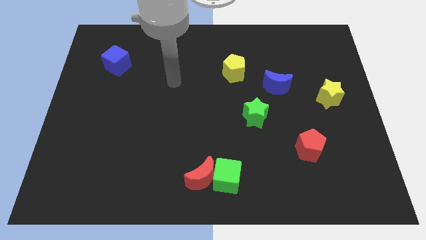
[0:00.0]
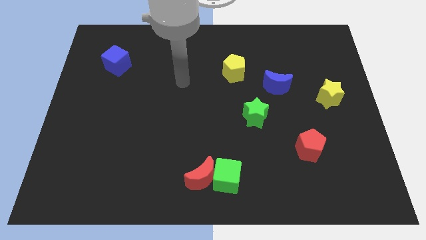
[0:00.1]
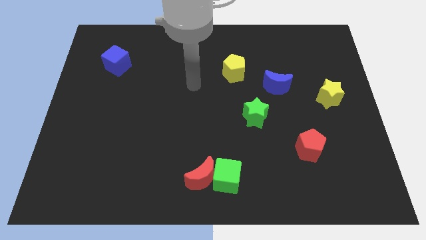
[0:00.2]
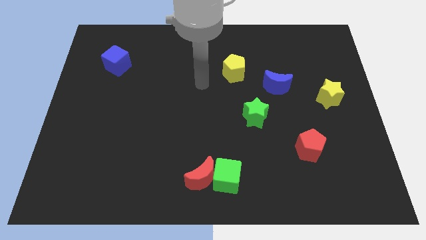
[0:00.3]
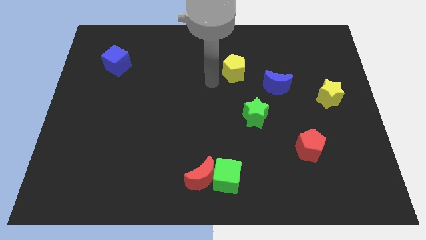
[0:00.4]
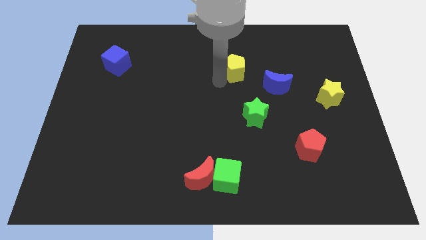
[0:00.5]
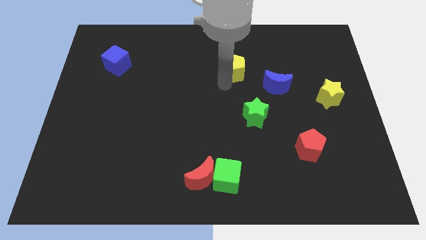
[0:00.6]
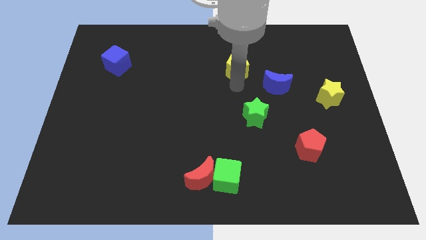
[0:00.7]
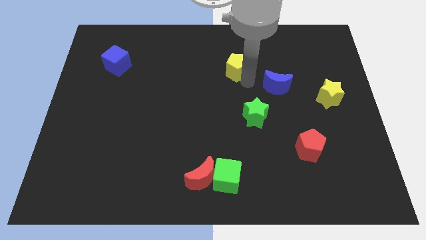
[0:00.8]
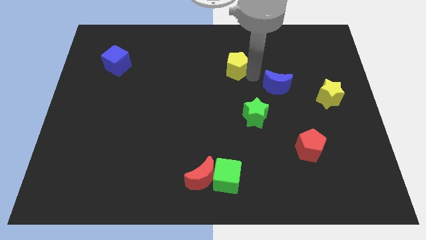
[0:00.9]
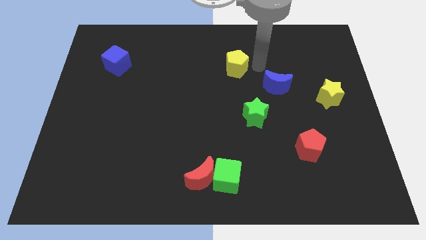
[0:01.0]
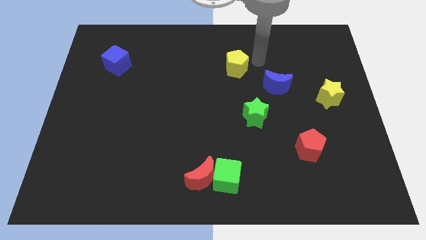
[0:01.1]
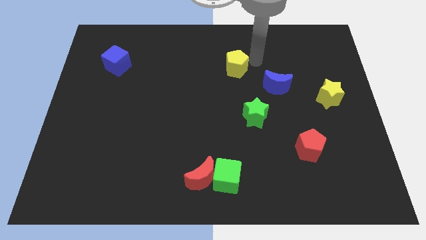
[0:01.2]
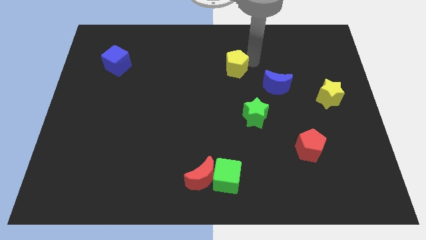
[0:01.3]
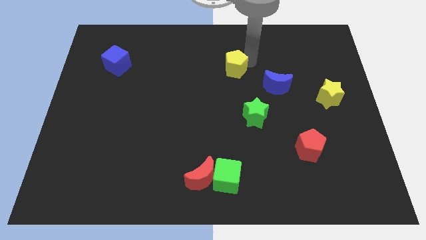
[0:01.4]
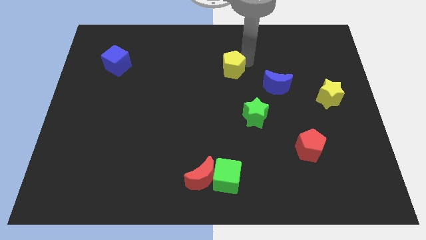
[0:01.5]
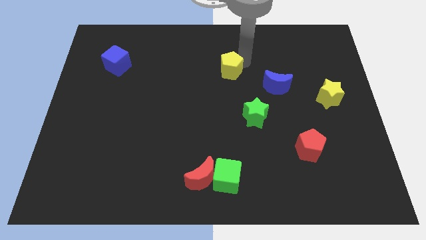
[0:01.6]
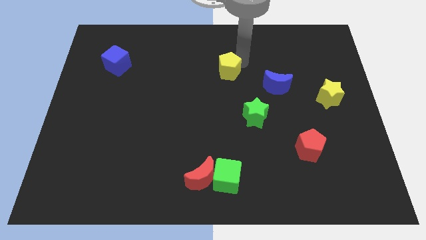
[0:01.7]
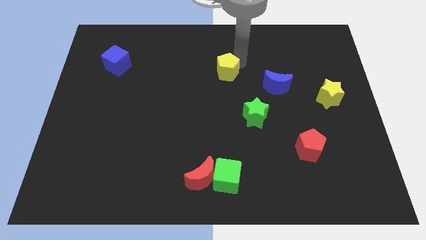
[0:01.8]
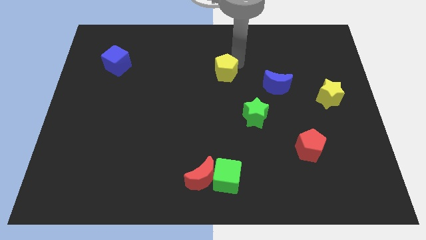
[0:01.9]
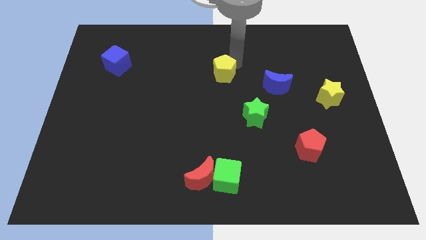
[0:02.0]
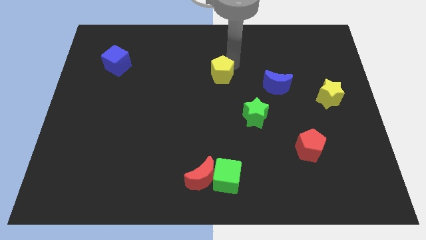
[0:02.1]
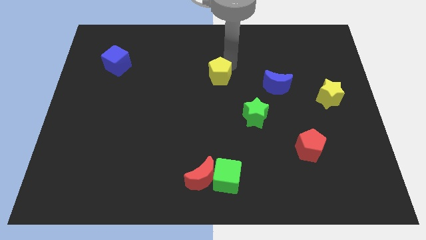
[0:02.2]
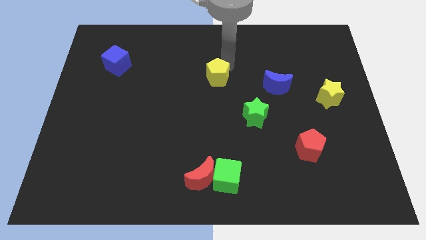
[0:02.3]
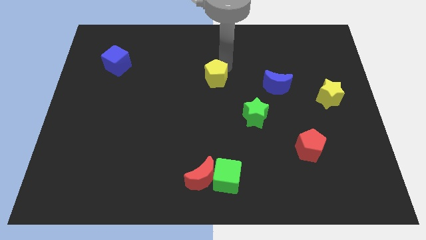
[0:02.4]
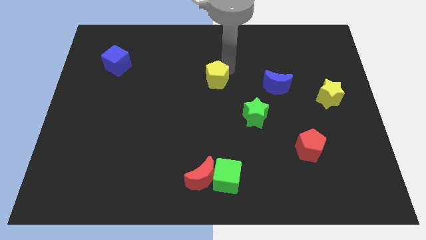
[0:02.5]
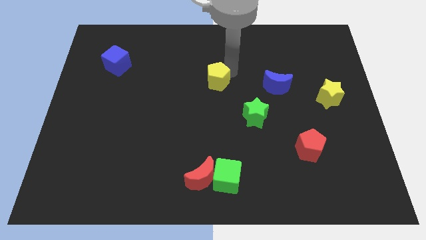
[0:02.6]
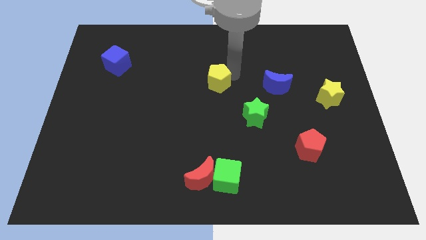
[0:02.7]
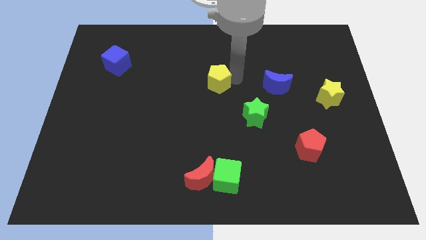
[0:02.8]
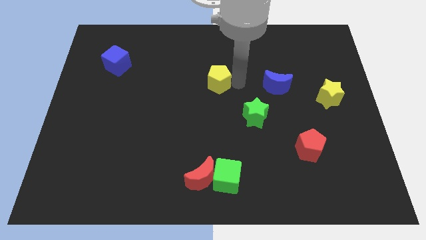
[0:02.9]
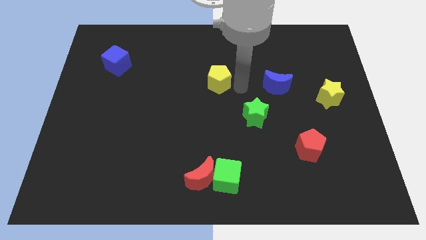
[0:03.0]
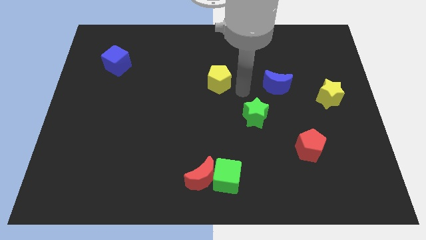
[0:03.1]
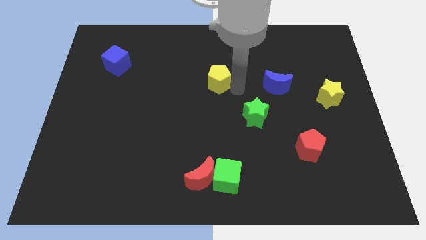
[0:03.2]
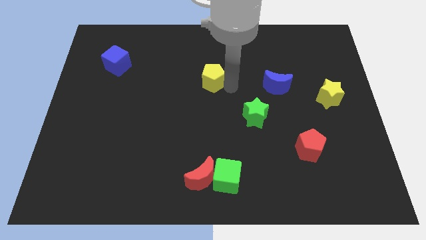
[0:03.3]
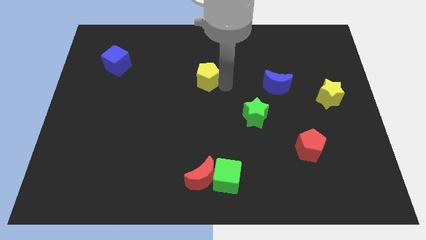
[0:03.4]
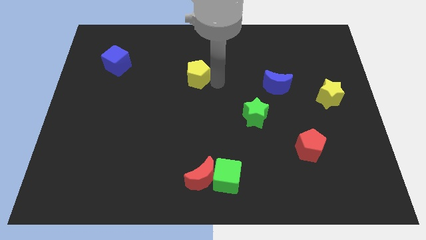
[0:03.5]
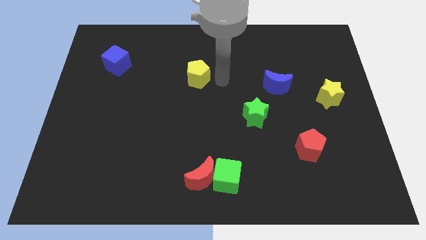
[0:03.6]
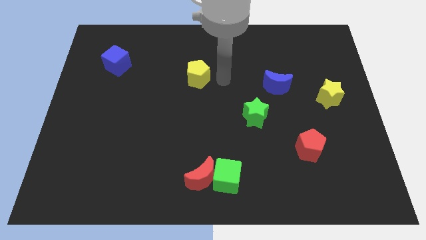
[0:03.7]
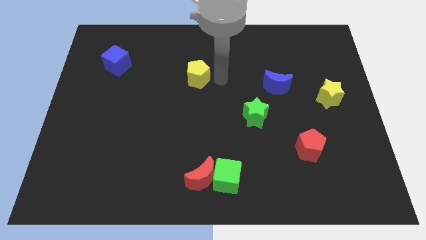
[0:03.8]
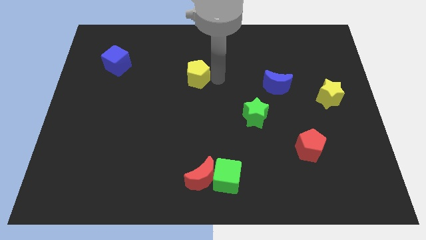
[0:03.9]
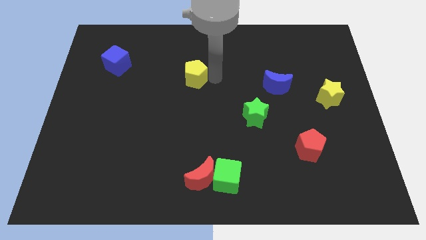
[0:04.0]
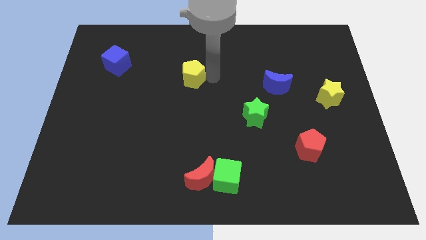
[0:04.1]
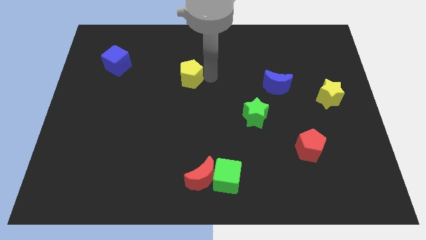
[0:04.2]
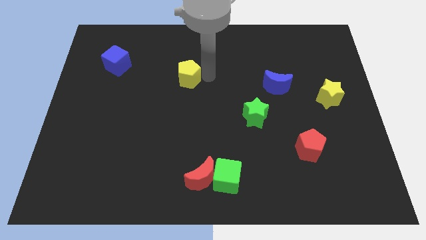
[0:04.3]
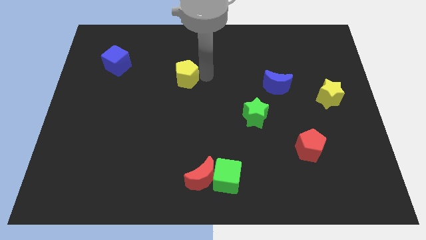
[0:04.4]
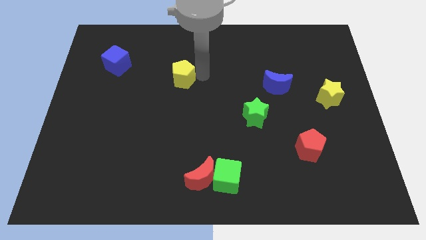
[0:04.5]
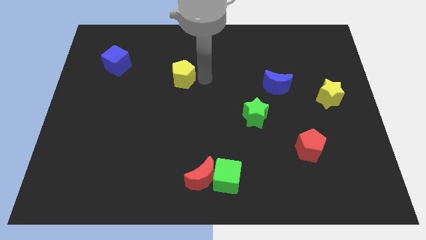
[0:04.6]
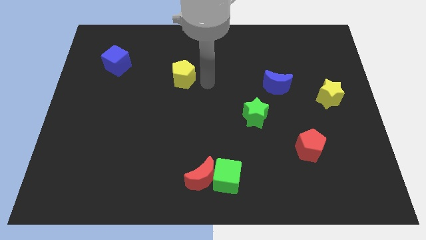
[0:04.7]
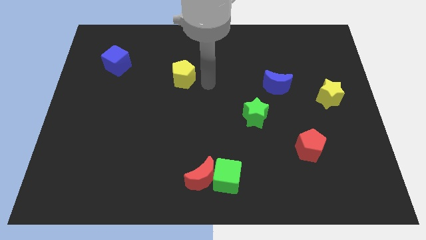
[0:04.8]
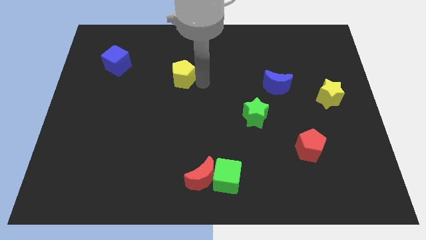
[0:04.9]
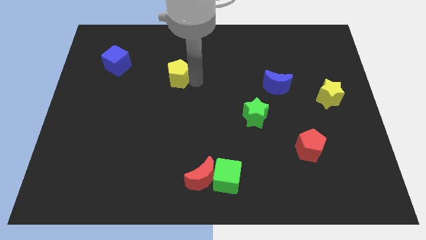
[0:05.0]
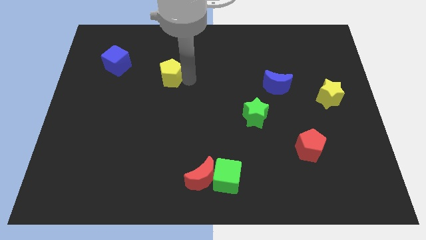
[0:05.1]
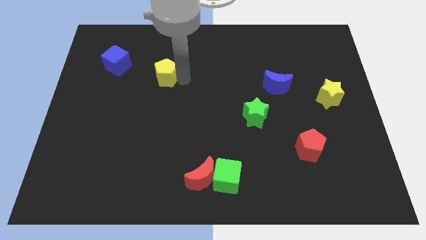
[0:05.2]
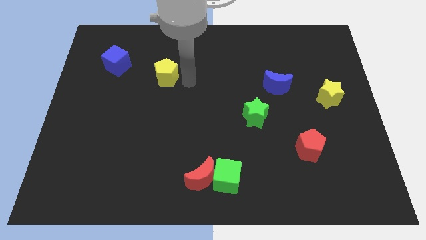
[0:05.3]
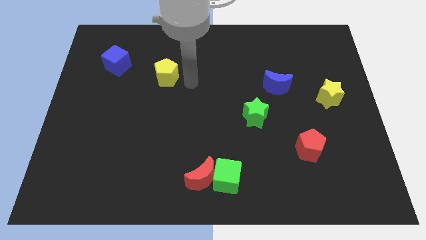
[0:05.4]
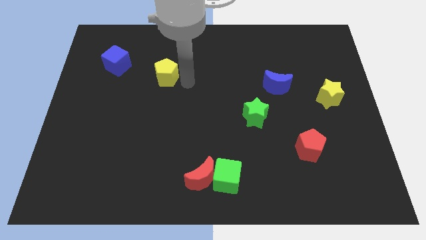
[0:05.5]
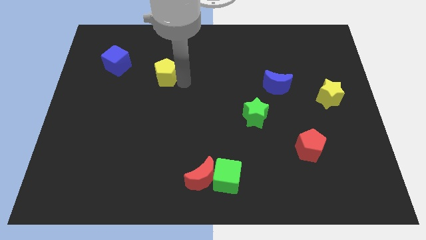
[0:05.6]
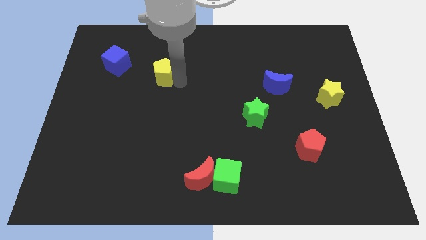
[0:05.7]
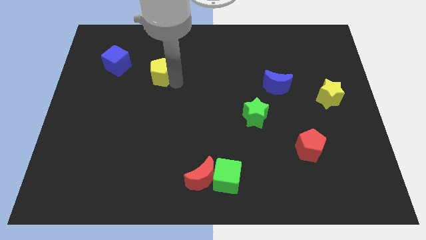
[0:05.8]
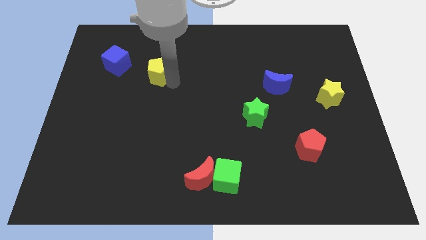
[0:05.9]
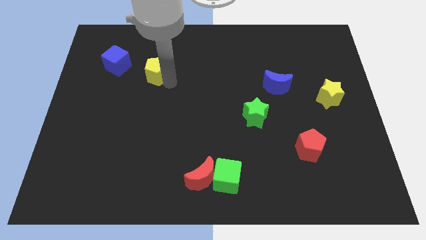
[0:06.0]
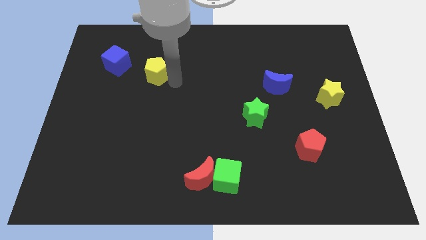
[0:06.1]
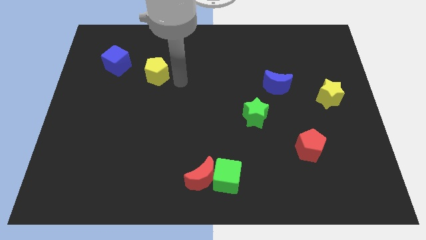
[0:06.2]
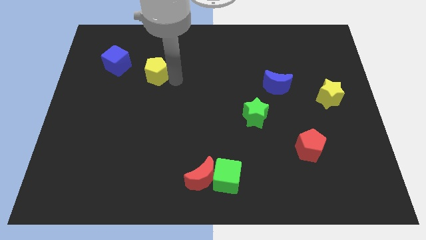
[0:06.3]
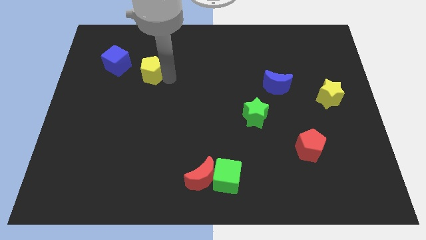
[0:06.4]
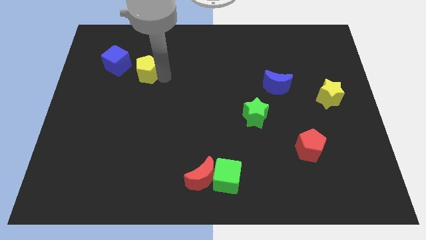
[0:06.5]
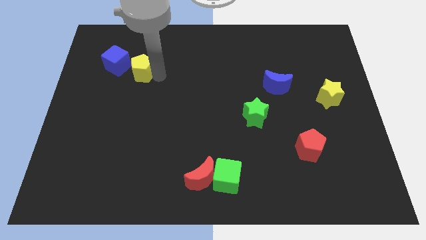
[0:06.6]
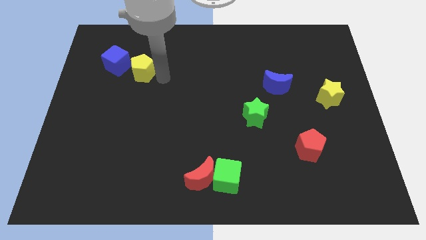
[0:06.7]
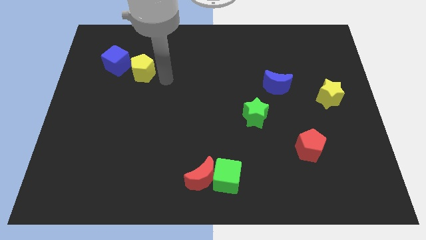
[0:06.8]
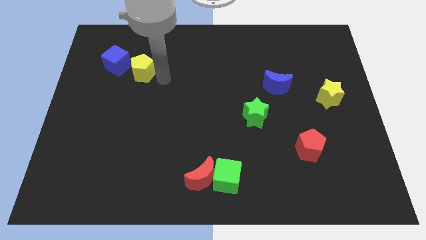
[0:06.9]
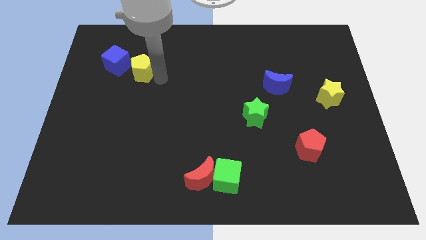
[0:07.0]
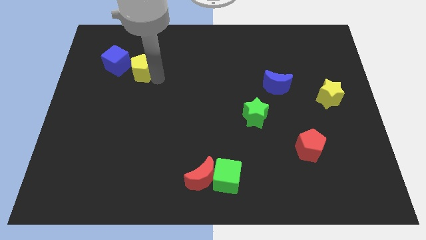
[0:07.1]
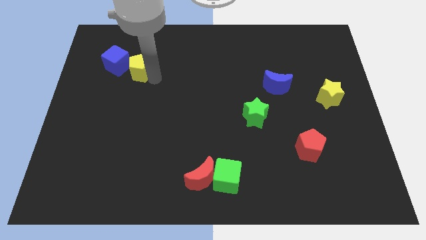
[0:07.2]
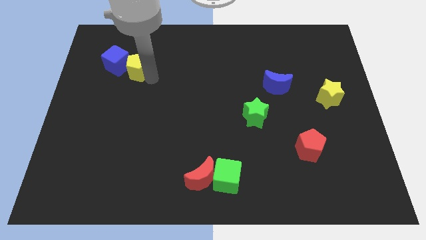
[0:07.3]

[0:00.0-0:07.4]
move the yellow pentagon next to the blue cube
